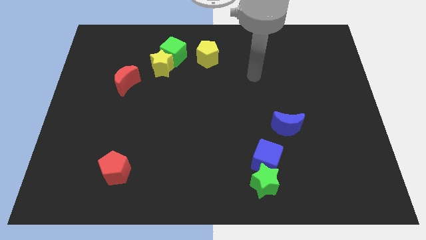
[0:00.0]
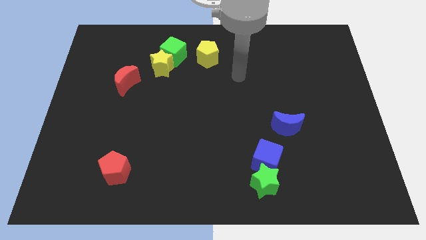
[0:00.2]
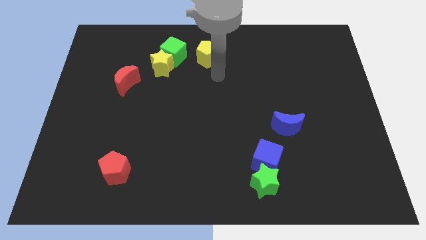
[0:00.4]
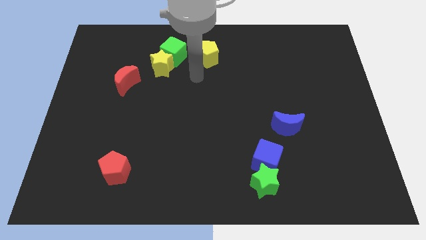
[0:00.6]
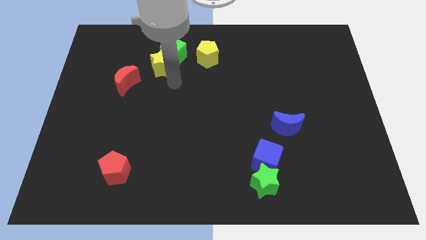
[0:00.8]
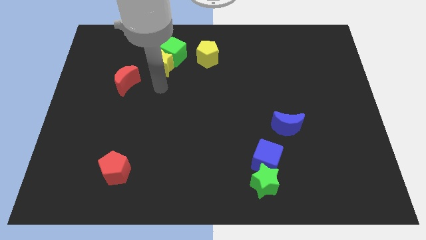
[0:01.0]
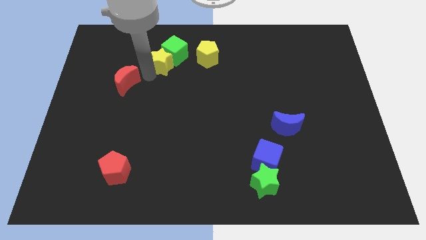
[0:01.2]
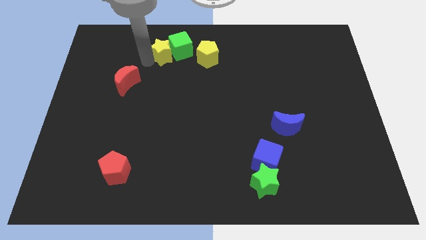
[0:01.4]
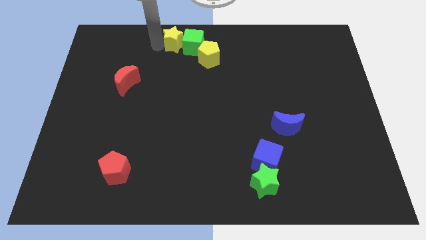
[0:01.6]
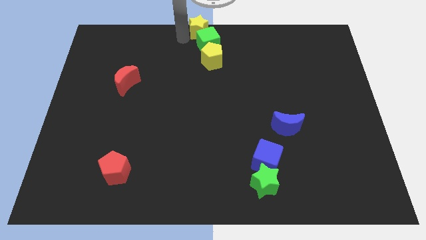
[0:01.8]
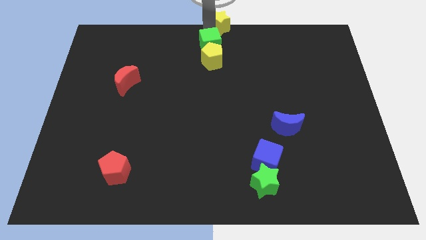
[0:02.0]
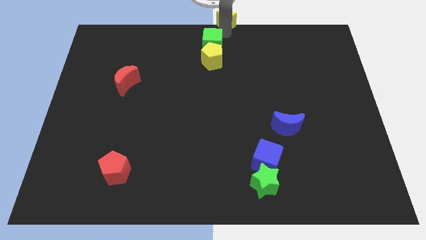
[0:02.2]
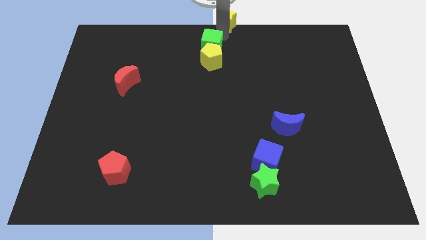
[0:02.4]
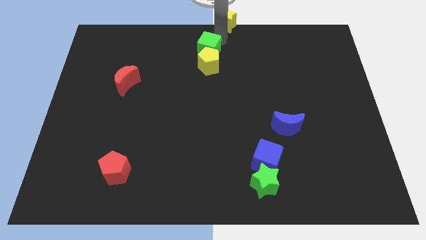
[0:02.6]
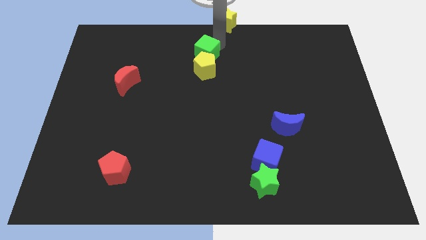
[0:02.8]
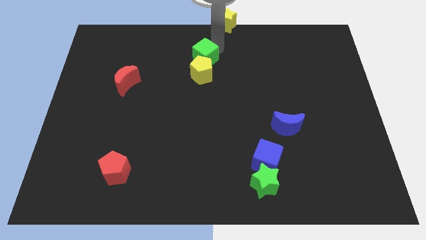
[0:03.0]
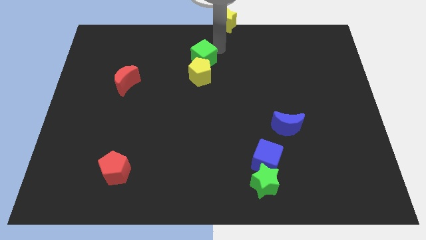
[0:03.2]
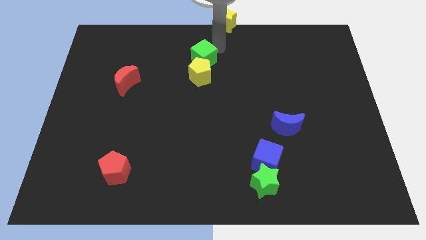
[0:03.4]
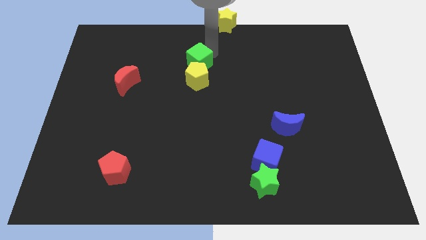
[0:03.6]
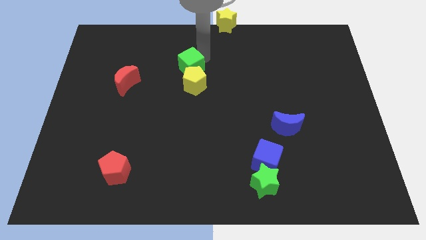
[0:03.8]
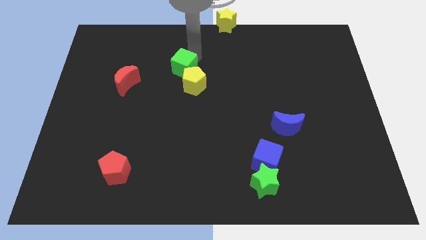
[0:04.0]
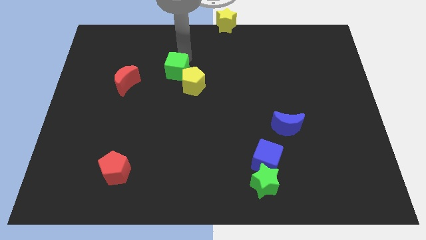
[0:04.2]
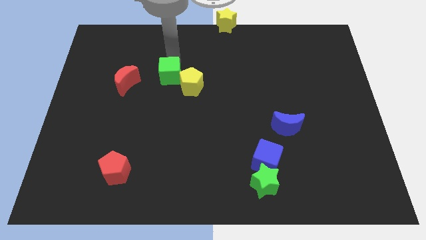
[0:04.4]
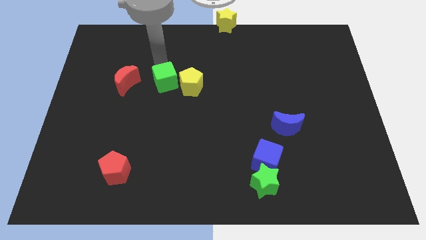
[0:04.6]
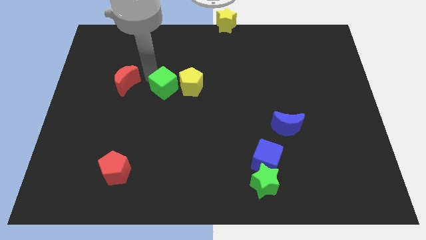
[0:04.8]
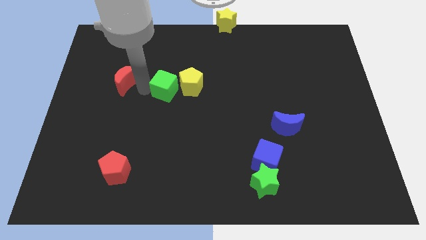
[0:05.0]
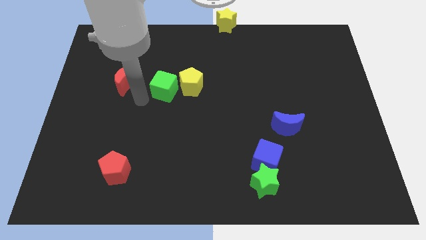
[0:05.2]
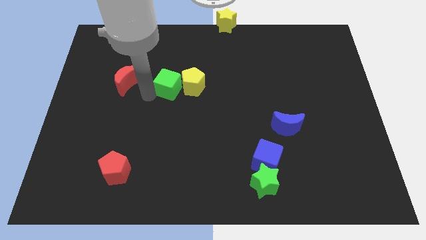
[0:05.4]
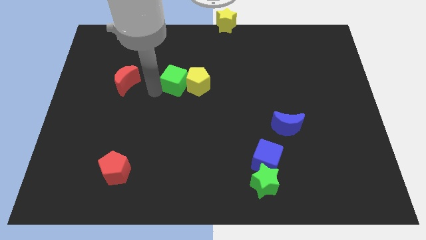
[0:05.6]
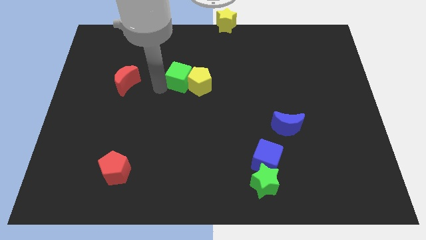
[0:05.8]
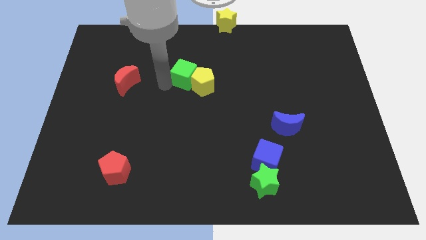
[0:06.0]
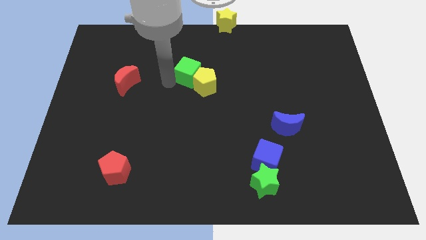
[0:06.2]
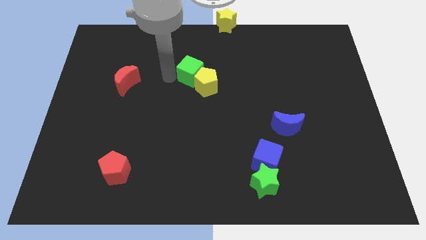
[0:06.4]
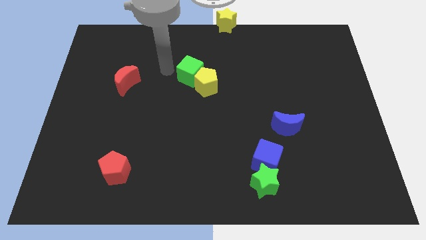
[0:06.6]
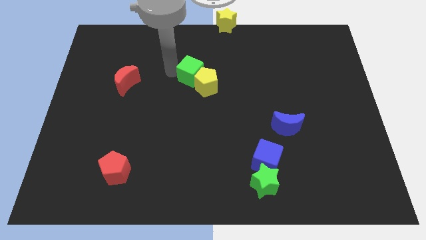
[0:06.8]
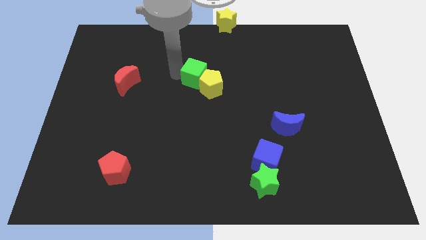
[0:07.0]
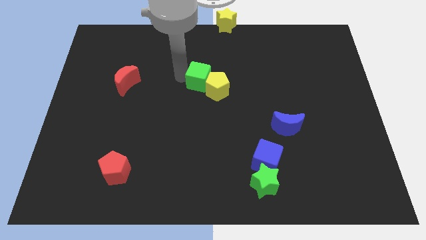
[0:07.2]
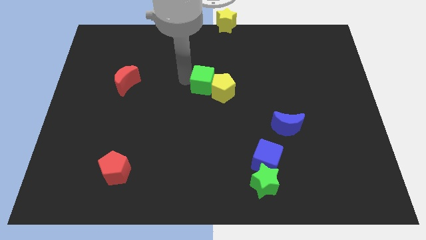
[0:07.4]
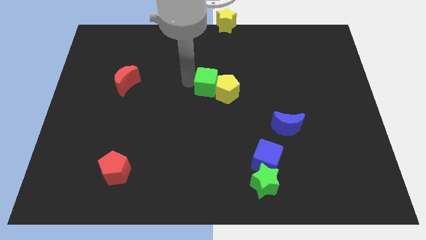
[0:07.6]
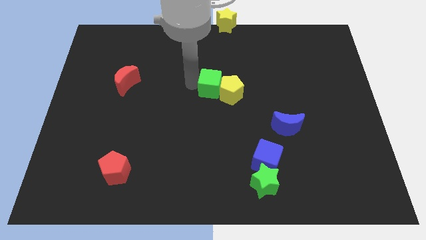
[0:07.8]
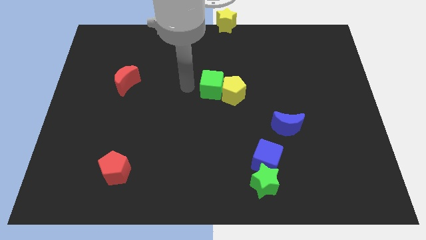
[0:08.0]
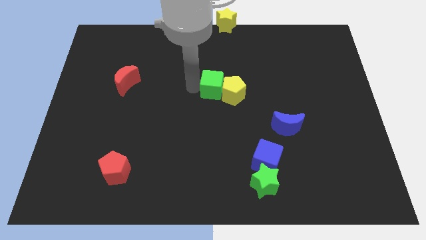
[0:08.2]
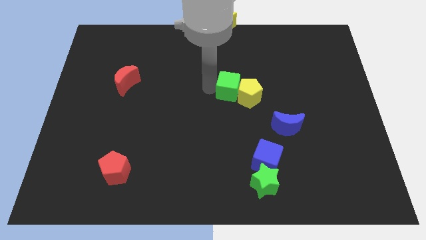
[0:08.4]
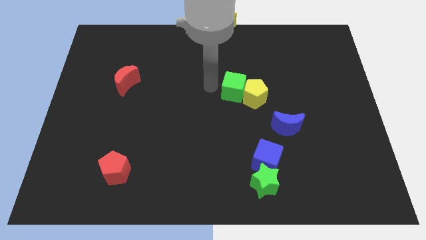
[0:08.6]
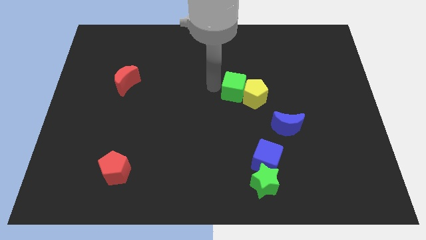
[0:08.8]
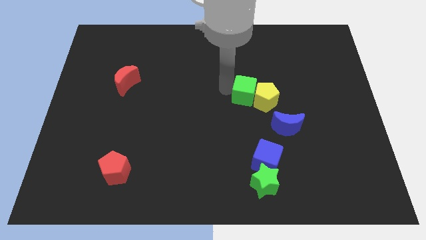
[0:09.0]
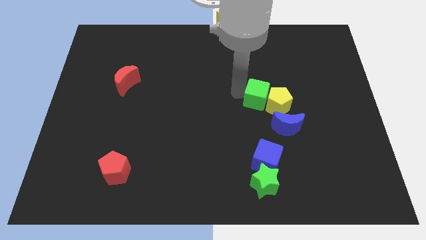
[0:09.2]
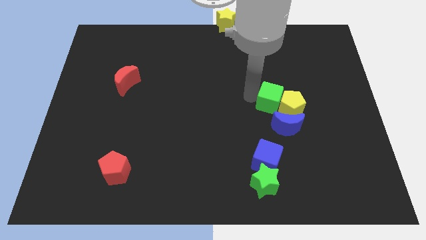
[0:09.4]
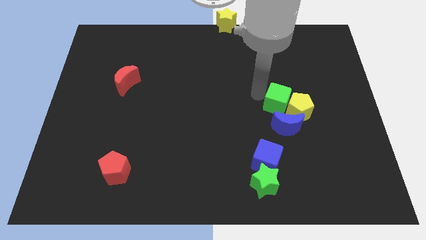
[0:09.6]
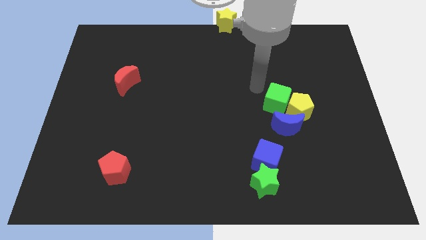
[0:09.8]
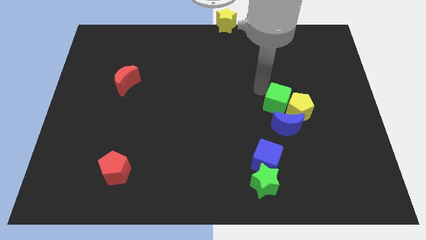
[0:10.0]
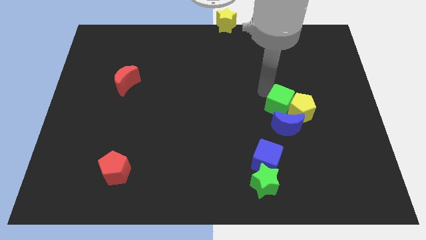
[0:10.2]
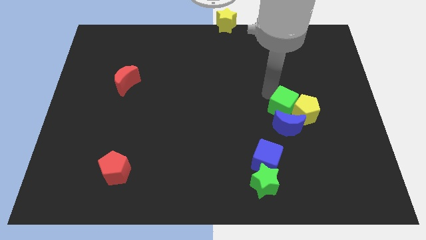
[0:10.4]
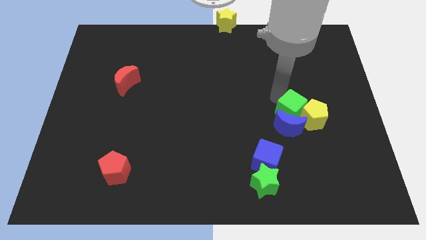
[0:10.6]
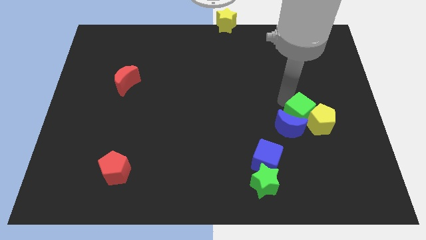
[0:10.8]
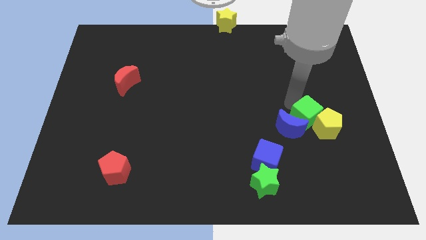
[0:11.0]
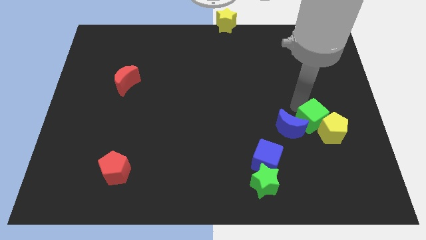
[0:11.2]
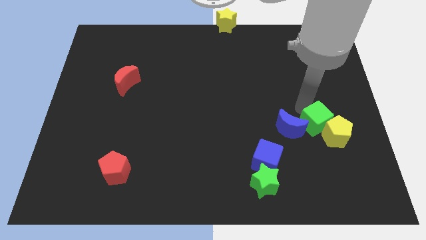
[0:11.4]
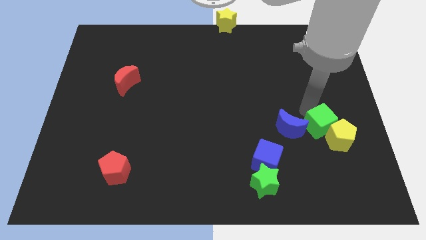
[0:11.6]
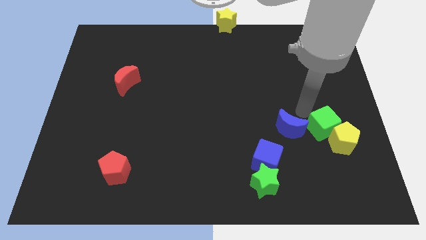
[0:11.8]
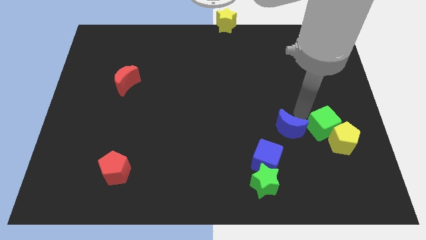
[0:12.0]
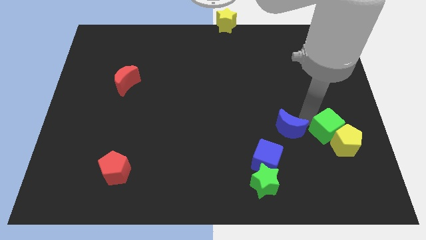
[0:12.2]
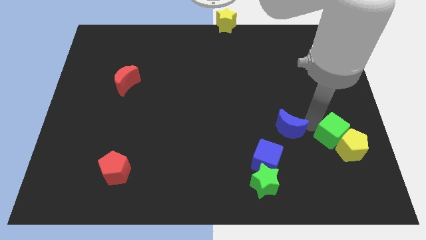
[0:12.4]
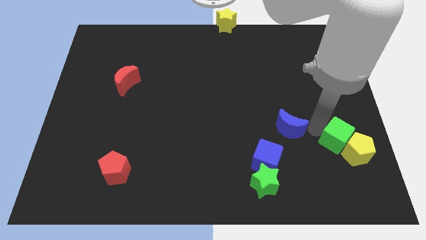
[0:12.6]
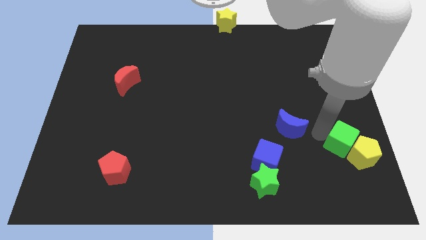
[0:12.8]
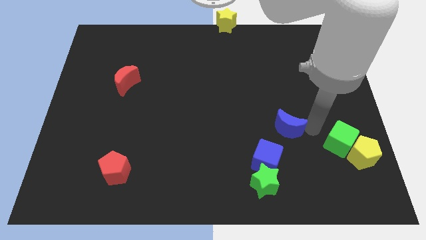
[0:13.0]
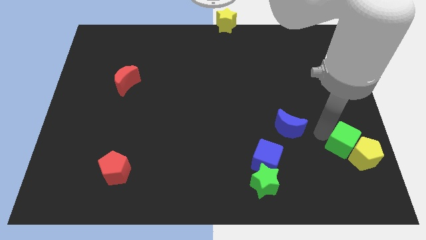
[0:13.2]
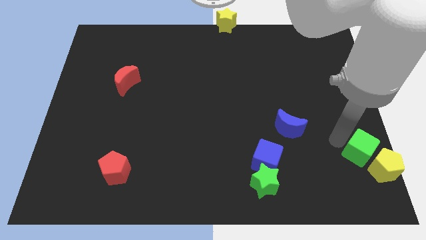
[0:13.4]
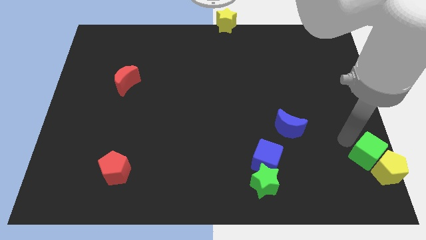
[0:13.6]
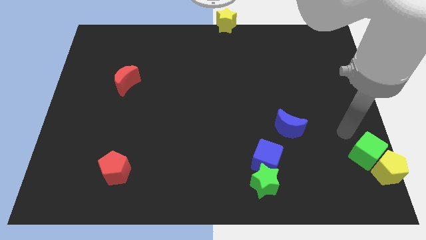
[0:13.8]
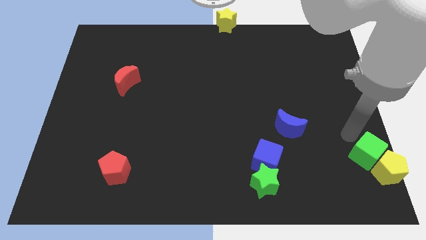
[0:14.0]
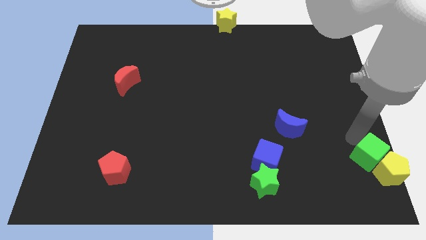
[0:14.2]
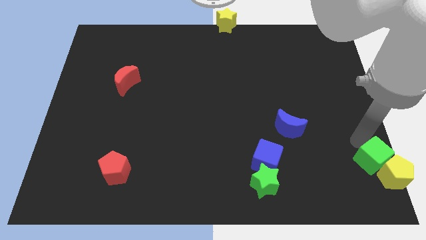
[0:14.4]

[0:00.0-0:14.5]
put the green cube to the bottom right corner
